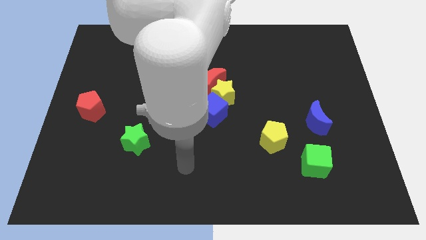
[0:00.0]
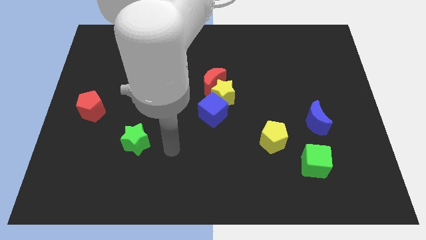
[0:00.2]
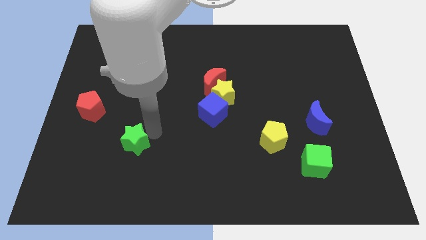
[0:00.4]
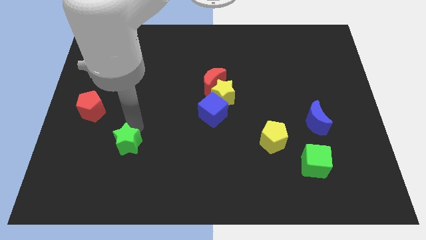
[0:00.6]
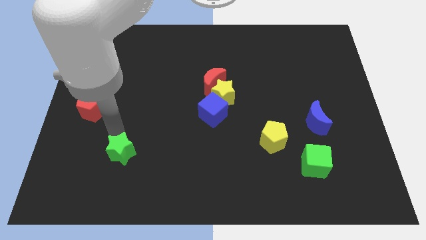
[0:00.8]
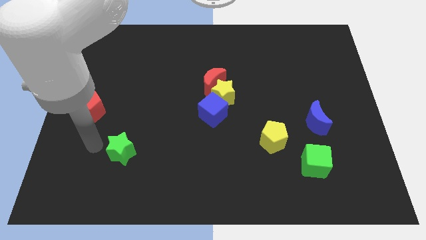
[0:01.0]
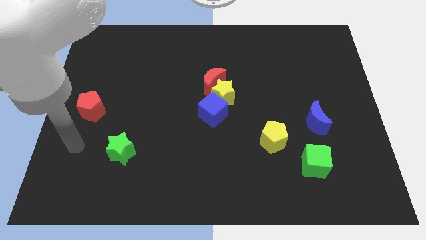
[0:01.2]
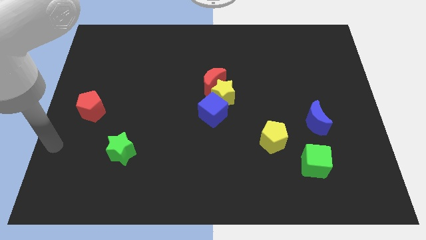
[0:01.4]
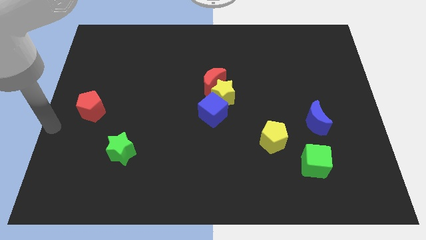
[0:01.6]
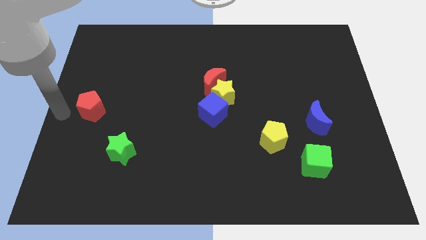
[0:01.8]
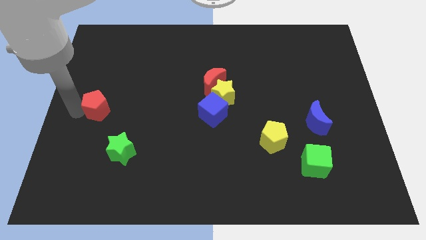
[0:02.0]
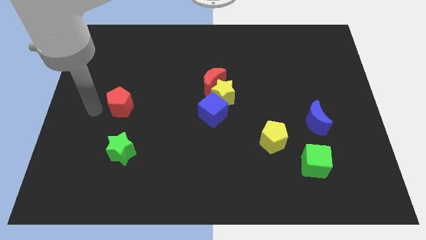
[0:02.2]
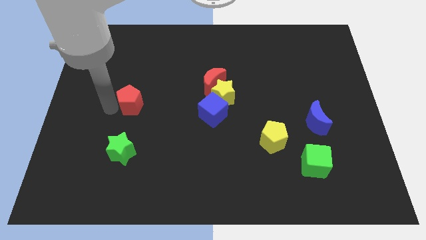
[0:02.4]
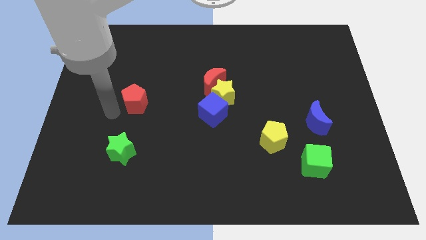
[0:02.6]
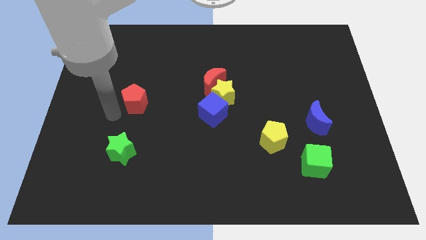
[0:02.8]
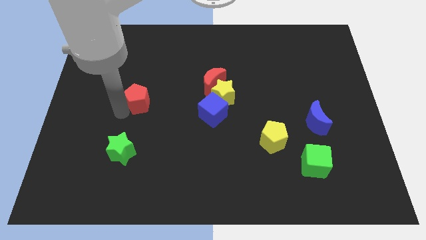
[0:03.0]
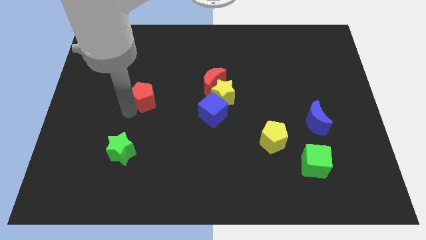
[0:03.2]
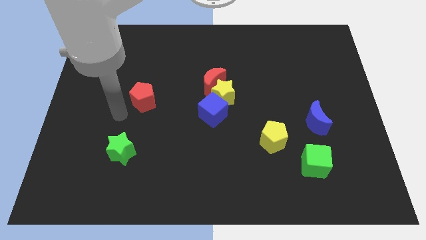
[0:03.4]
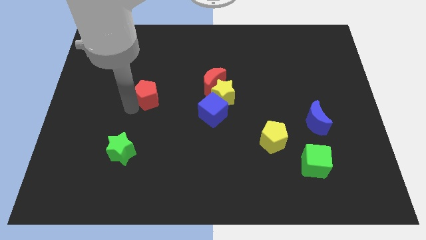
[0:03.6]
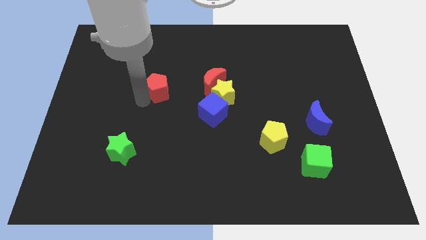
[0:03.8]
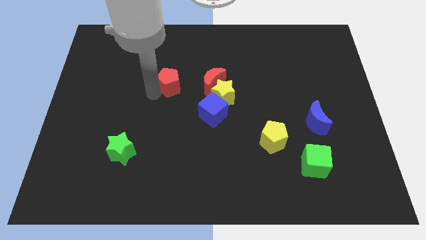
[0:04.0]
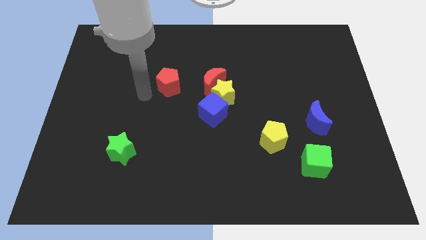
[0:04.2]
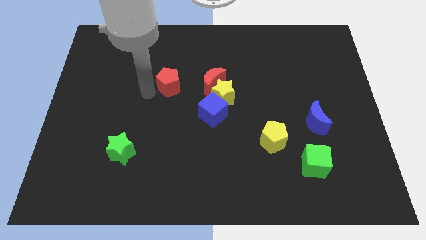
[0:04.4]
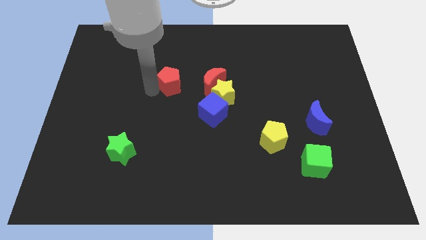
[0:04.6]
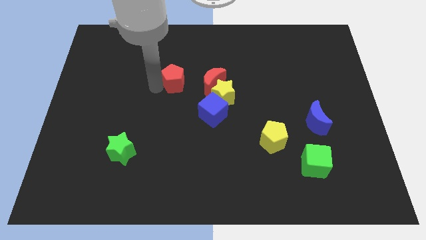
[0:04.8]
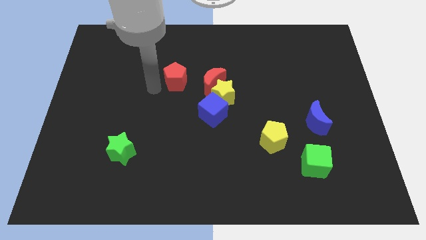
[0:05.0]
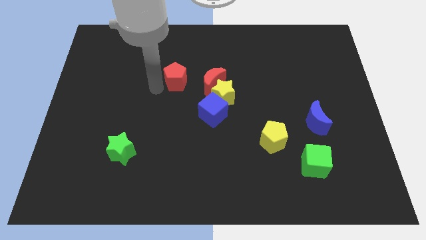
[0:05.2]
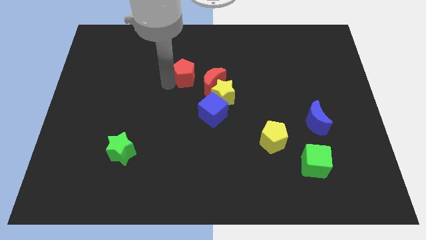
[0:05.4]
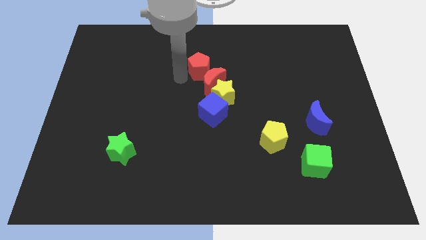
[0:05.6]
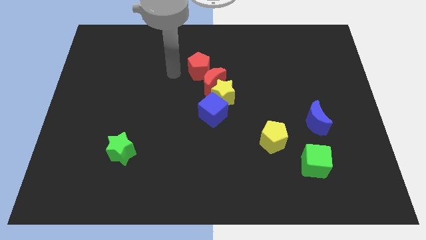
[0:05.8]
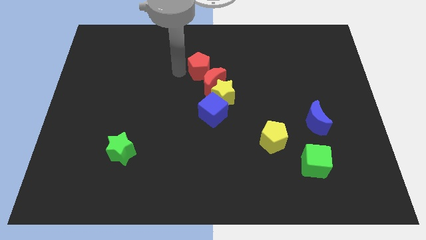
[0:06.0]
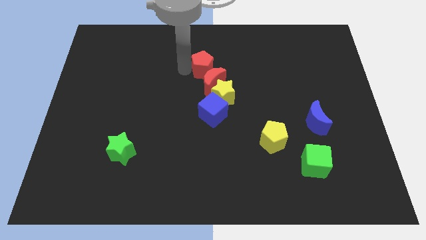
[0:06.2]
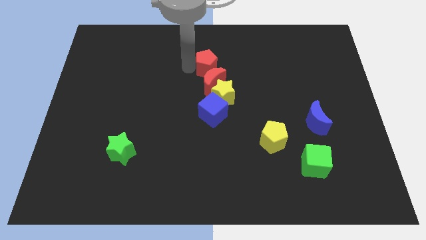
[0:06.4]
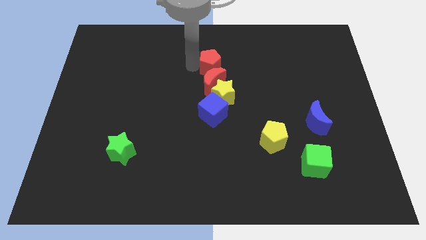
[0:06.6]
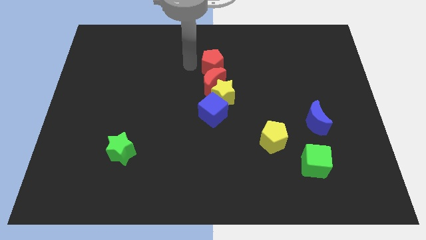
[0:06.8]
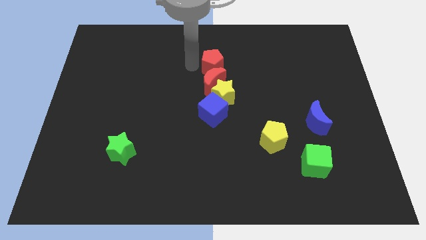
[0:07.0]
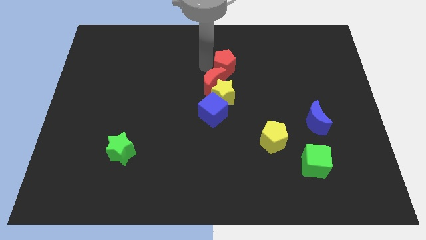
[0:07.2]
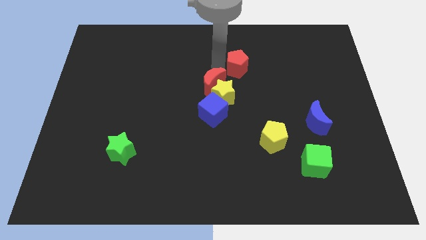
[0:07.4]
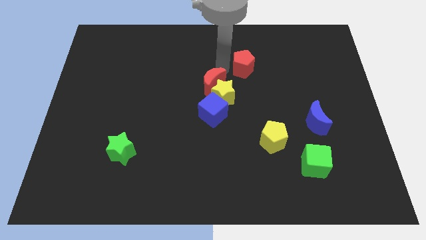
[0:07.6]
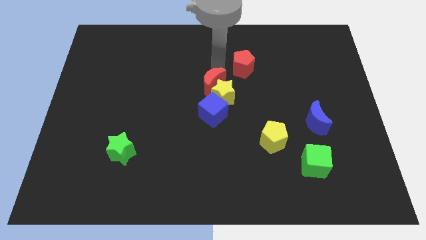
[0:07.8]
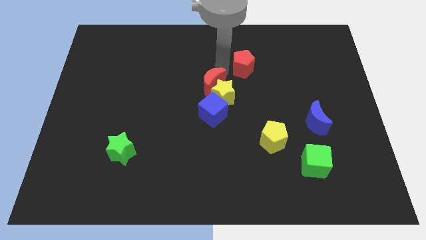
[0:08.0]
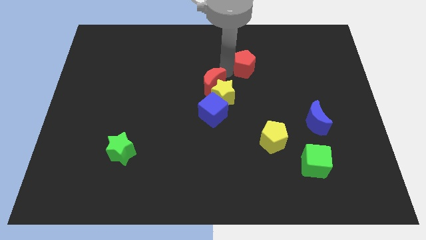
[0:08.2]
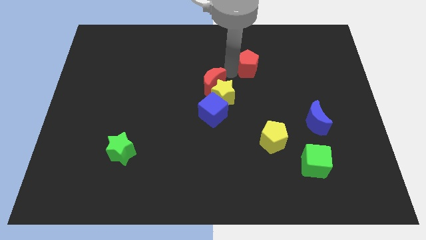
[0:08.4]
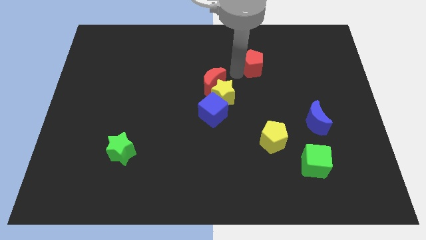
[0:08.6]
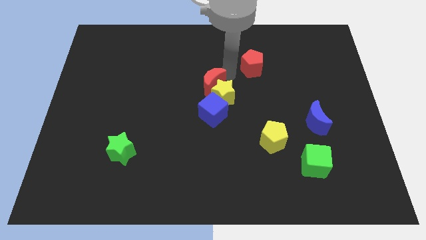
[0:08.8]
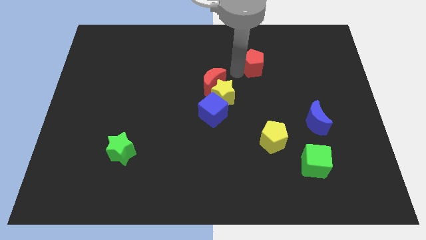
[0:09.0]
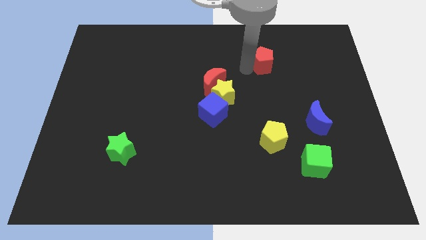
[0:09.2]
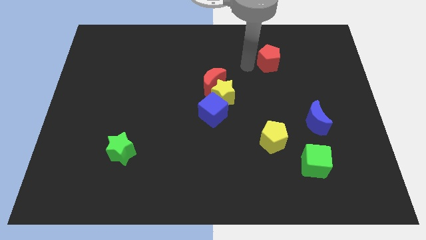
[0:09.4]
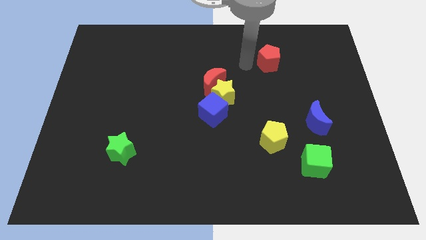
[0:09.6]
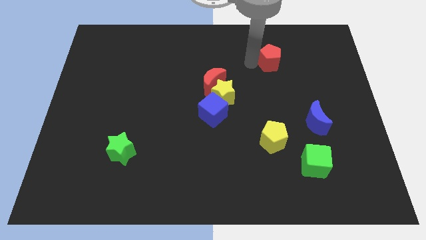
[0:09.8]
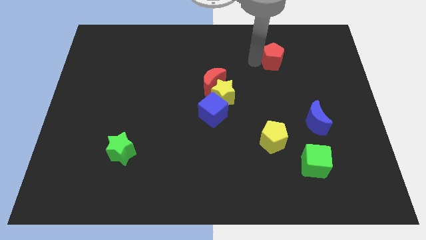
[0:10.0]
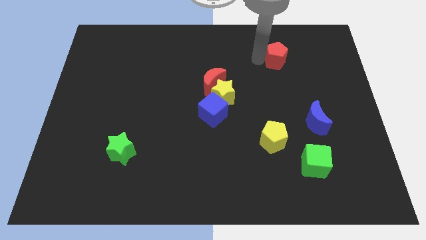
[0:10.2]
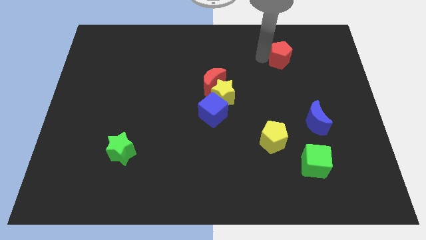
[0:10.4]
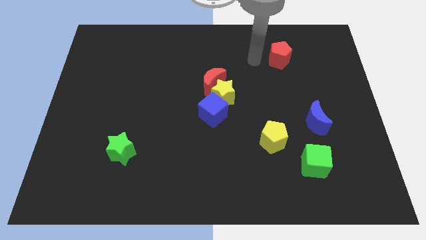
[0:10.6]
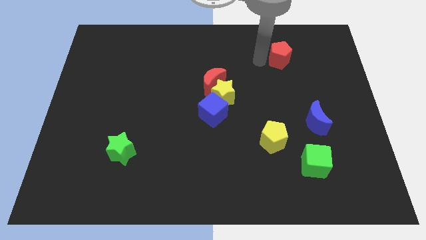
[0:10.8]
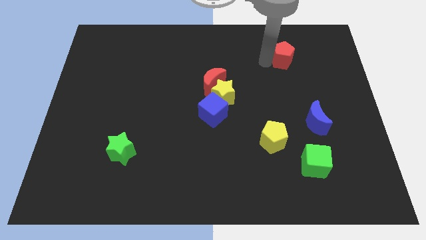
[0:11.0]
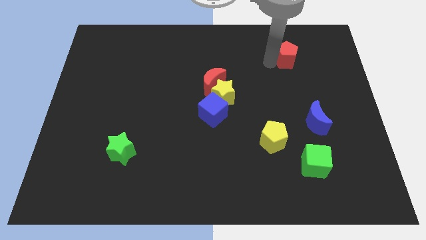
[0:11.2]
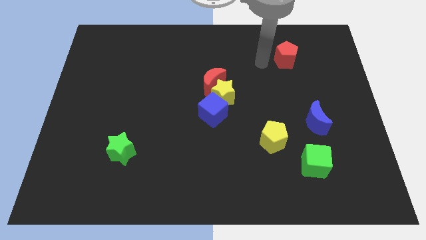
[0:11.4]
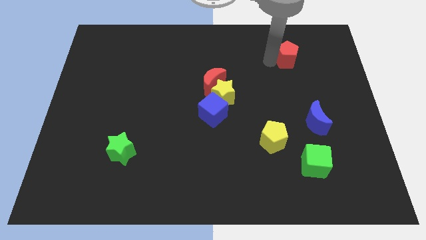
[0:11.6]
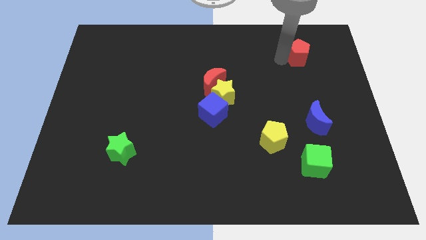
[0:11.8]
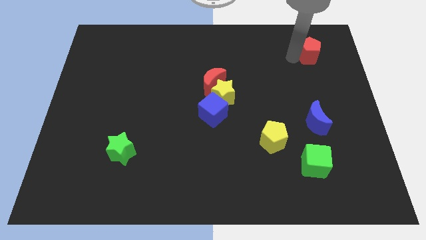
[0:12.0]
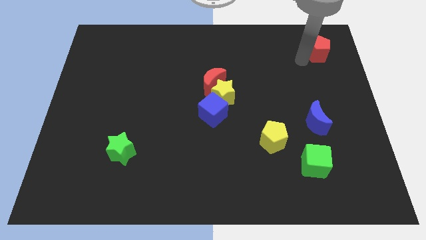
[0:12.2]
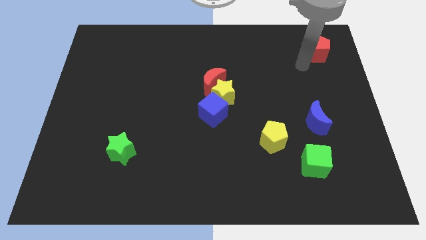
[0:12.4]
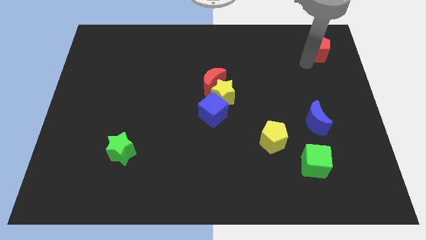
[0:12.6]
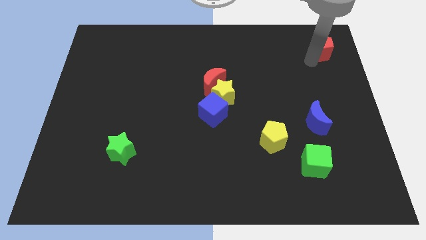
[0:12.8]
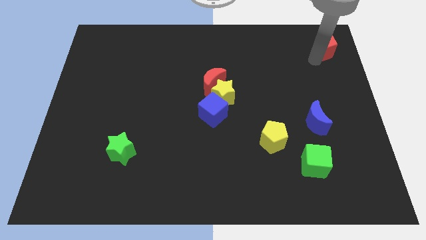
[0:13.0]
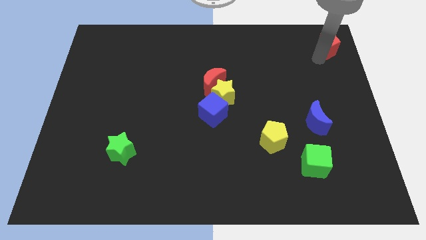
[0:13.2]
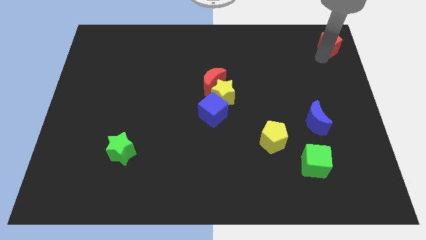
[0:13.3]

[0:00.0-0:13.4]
slide the red pentagon to the top right

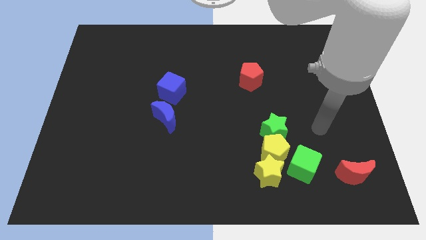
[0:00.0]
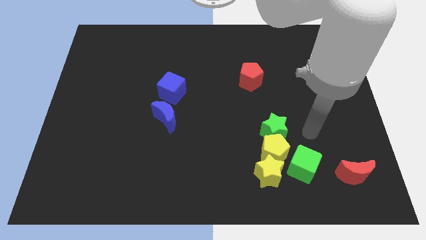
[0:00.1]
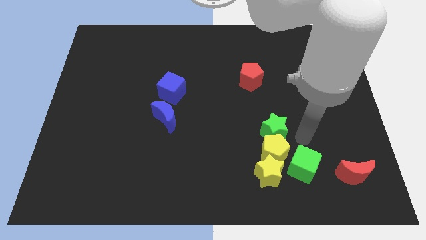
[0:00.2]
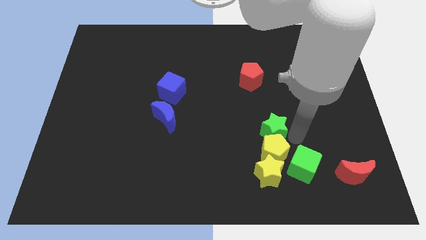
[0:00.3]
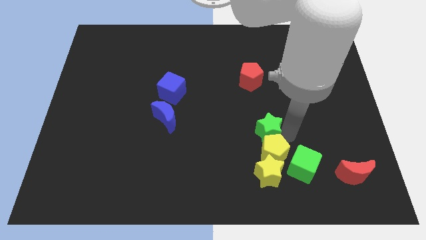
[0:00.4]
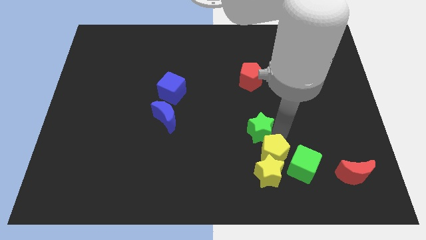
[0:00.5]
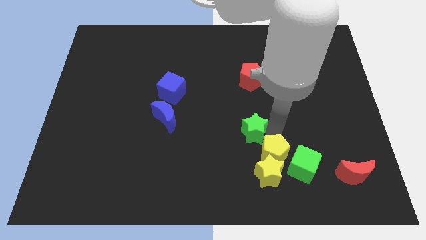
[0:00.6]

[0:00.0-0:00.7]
slide the green star to the middle of the board
